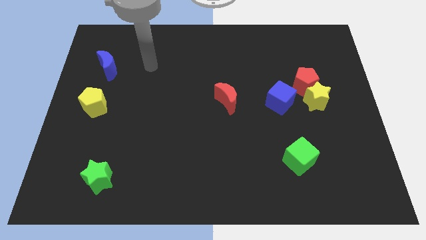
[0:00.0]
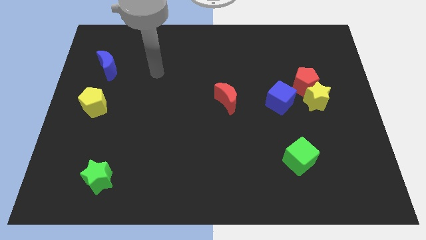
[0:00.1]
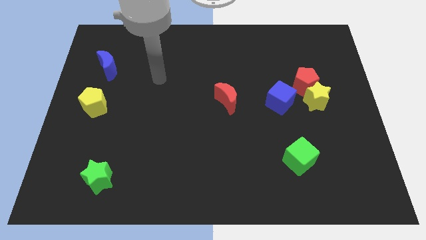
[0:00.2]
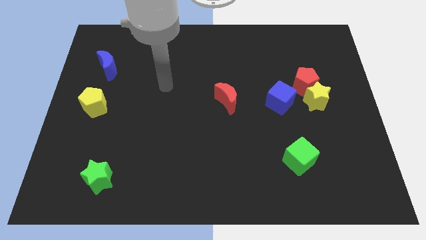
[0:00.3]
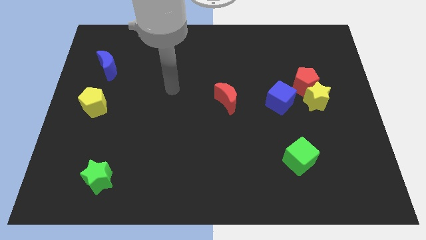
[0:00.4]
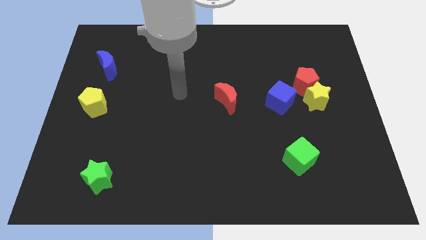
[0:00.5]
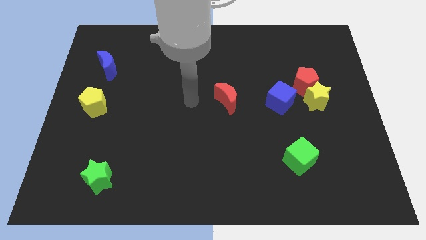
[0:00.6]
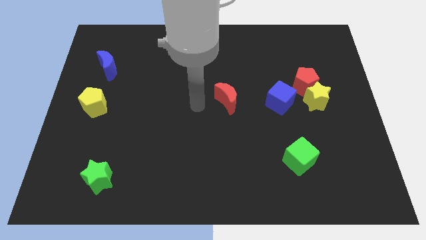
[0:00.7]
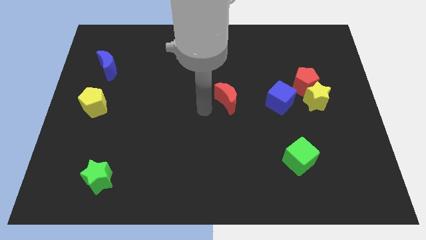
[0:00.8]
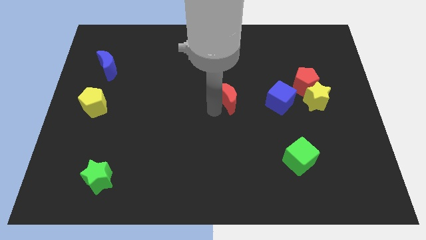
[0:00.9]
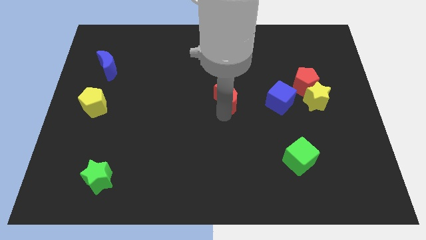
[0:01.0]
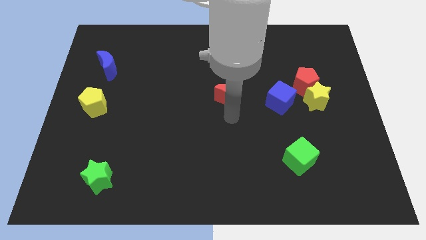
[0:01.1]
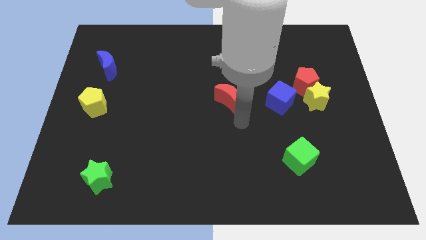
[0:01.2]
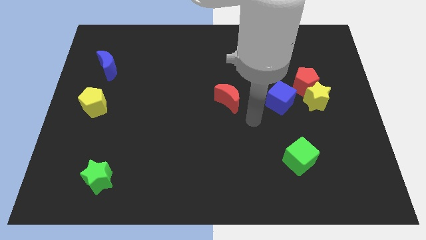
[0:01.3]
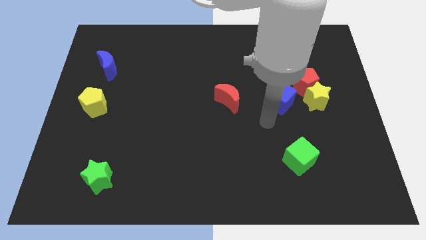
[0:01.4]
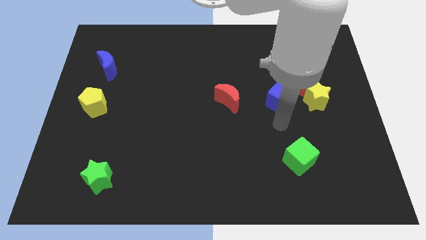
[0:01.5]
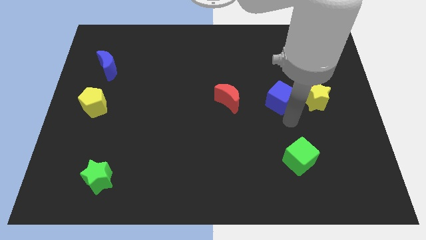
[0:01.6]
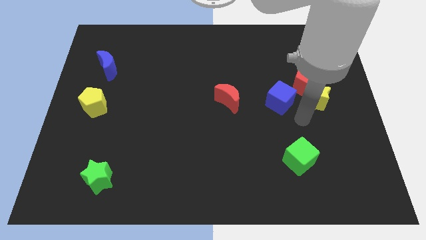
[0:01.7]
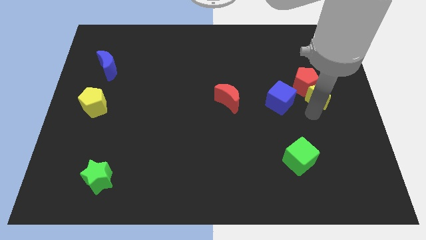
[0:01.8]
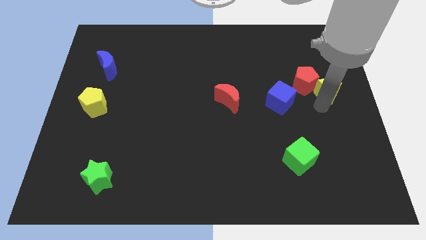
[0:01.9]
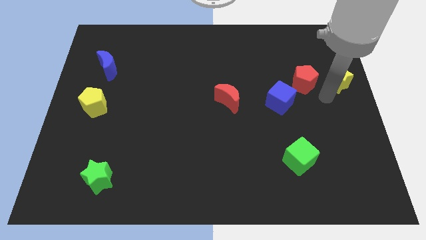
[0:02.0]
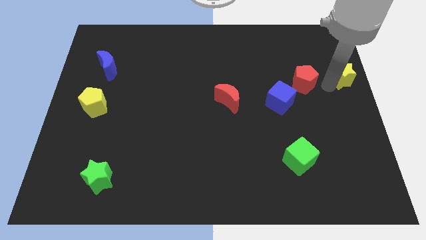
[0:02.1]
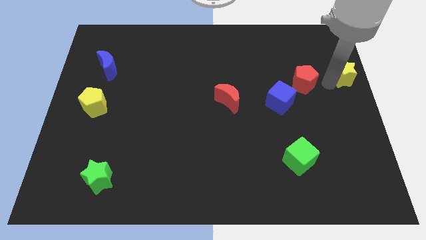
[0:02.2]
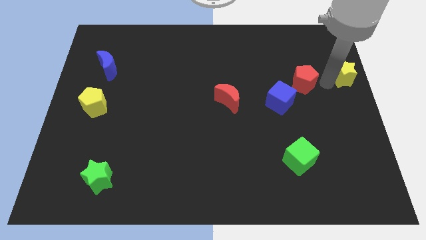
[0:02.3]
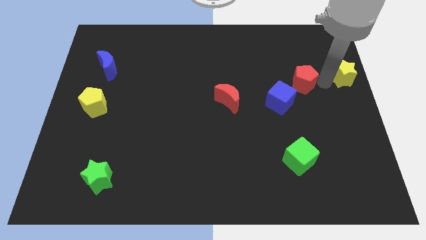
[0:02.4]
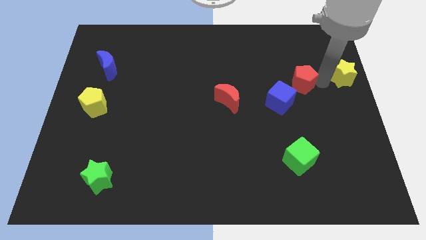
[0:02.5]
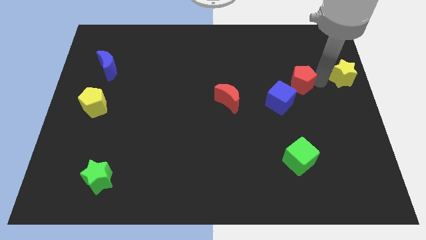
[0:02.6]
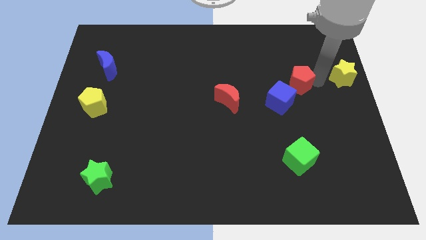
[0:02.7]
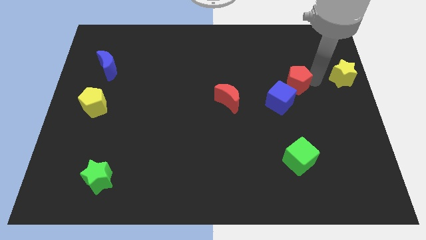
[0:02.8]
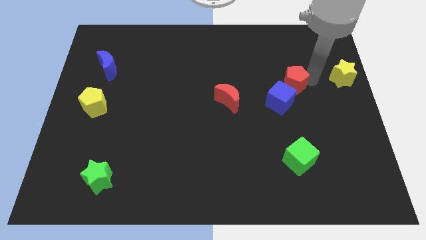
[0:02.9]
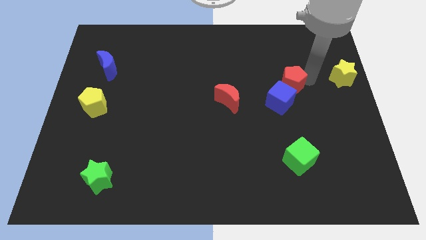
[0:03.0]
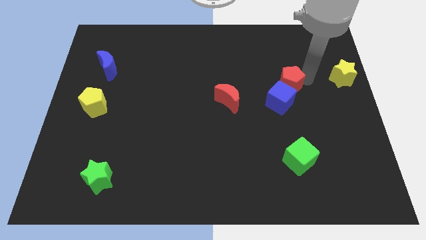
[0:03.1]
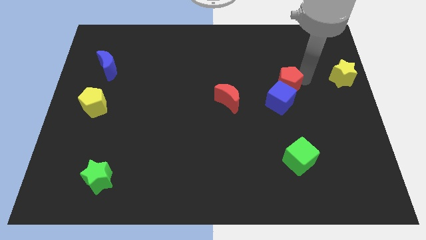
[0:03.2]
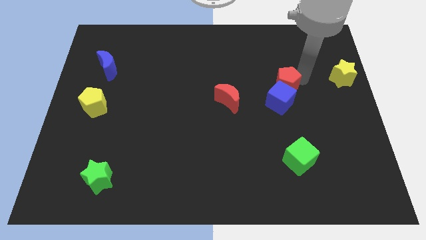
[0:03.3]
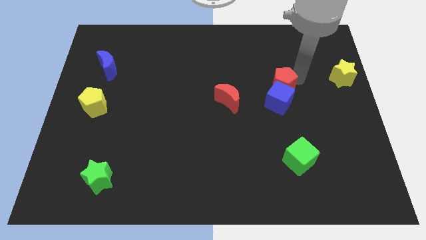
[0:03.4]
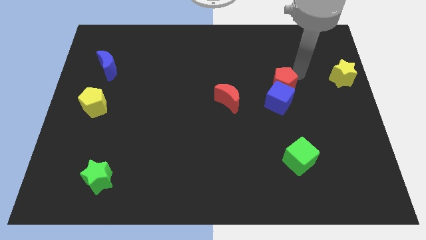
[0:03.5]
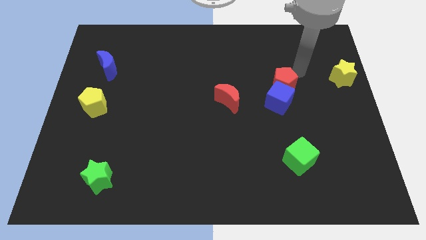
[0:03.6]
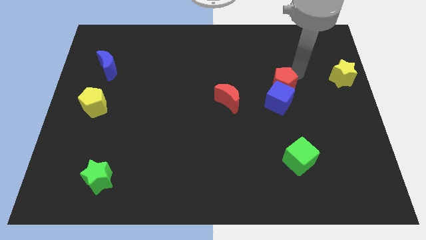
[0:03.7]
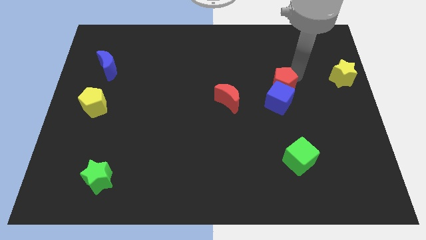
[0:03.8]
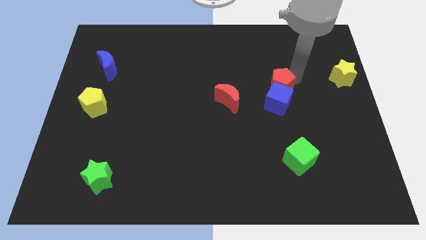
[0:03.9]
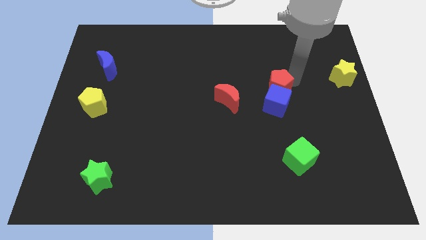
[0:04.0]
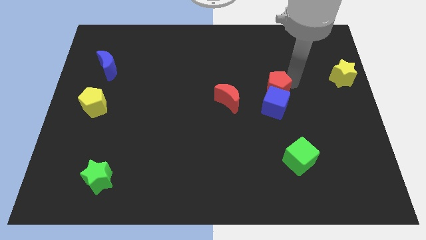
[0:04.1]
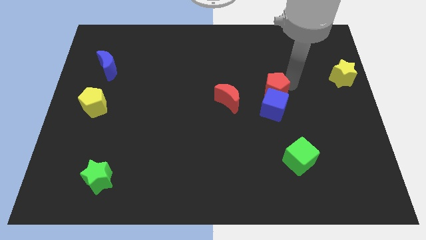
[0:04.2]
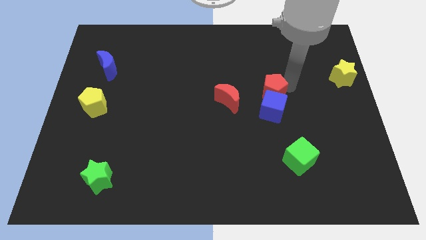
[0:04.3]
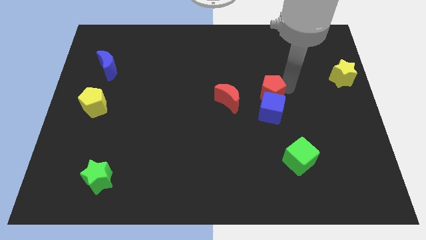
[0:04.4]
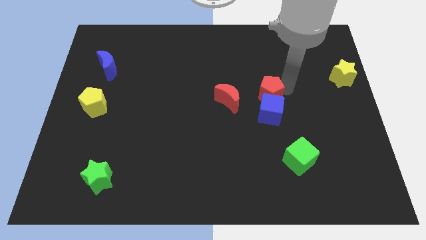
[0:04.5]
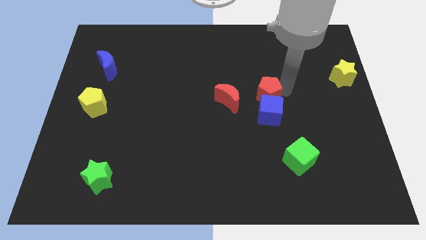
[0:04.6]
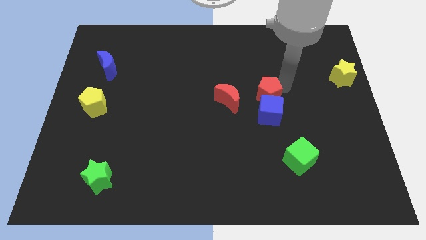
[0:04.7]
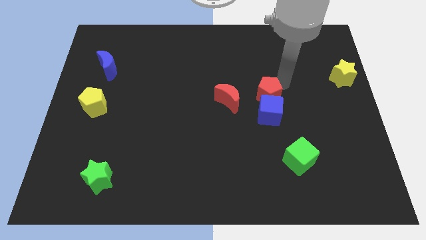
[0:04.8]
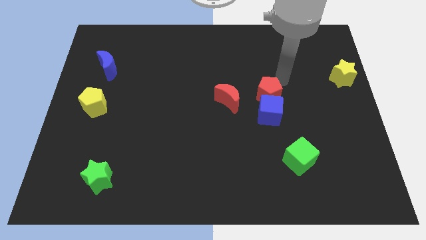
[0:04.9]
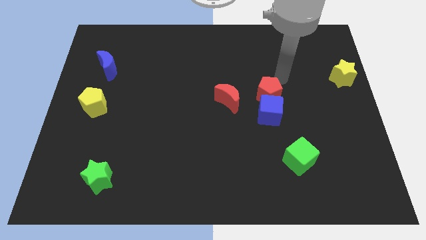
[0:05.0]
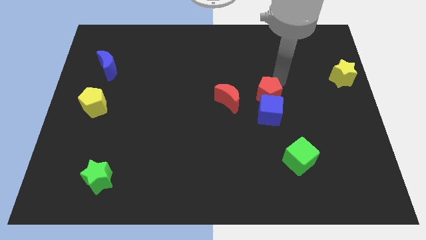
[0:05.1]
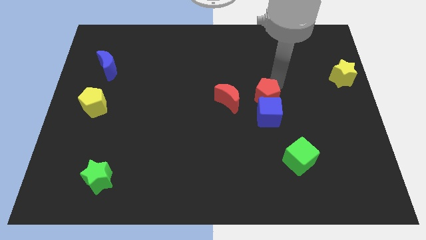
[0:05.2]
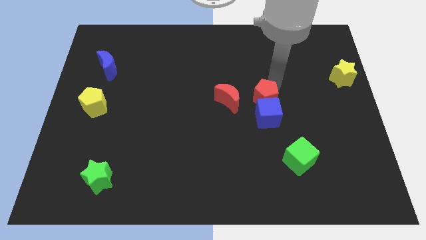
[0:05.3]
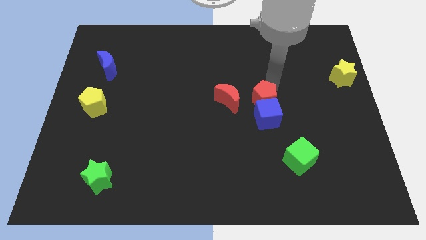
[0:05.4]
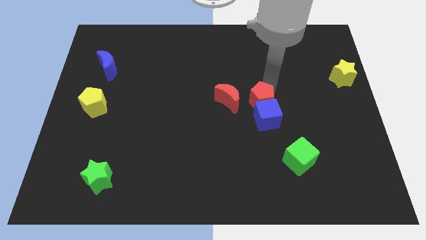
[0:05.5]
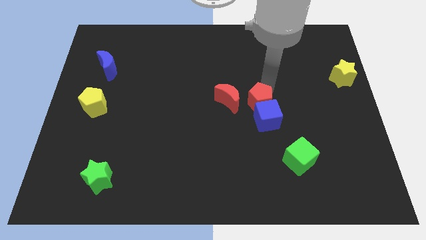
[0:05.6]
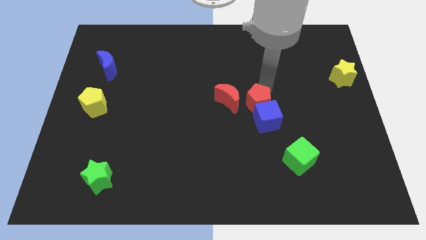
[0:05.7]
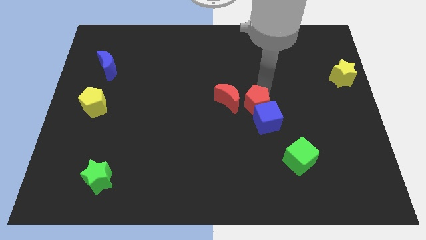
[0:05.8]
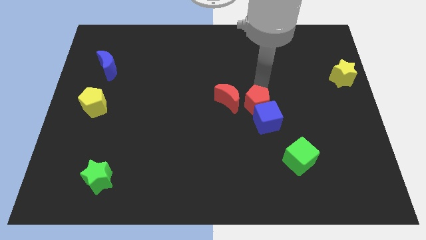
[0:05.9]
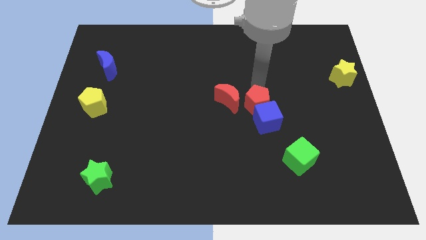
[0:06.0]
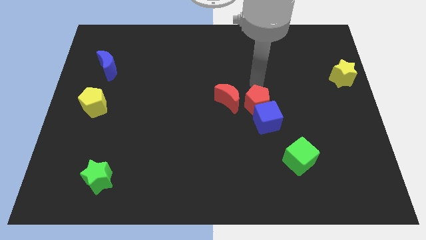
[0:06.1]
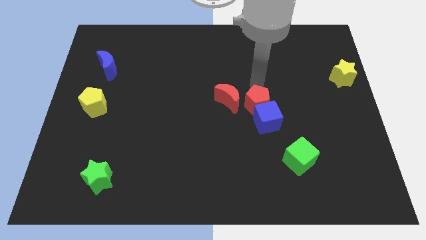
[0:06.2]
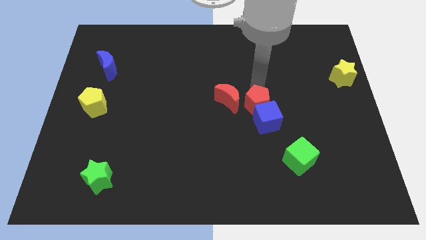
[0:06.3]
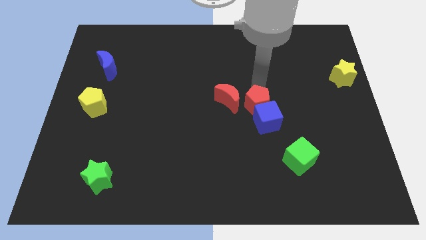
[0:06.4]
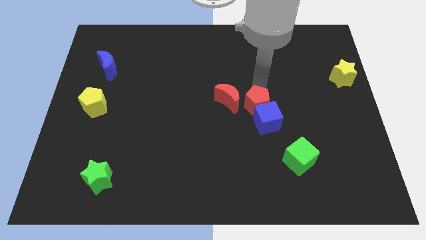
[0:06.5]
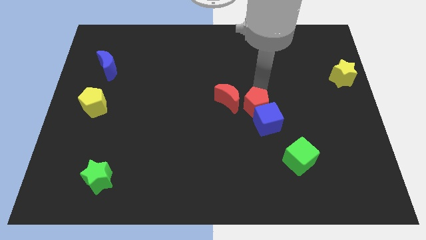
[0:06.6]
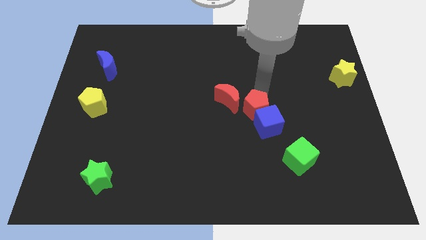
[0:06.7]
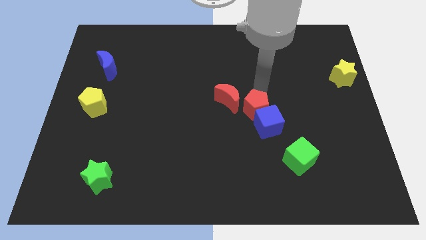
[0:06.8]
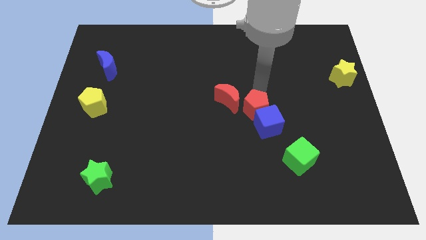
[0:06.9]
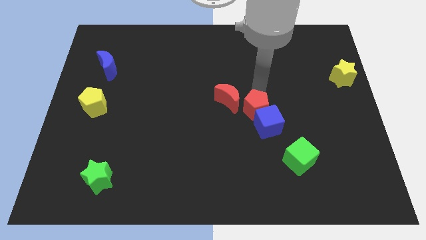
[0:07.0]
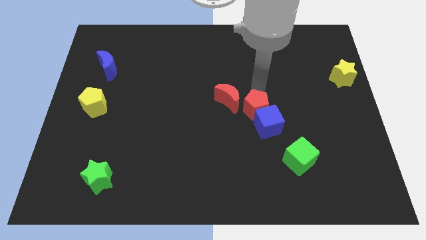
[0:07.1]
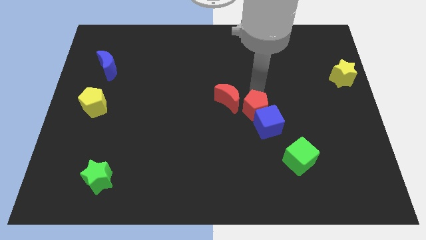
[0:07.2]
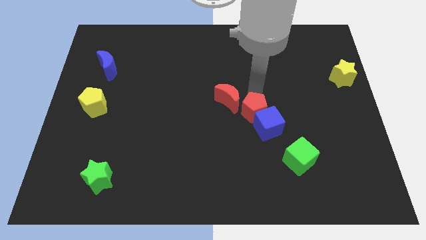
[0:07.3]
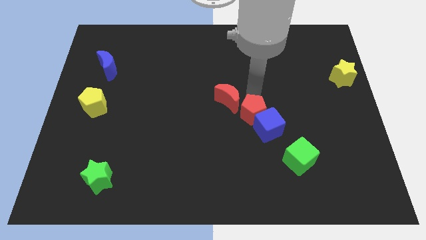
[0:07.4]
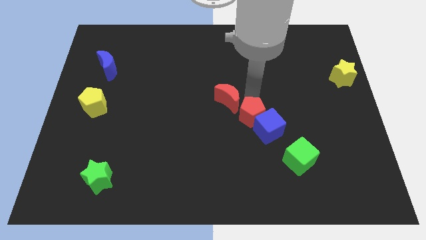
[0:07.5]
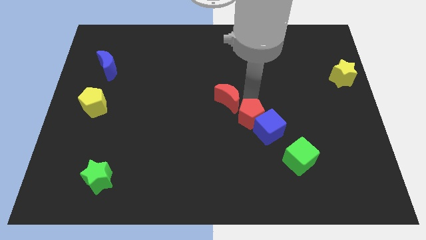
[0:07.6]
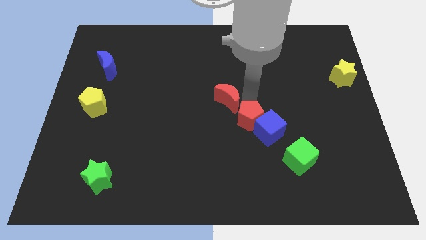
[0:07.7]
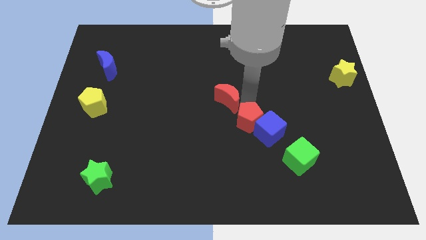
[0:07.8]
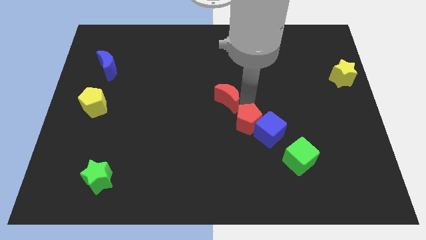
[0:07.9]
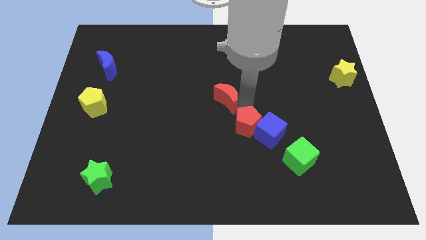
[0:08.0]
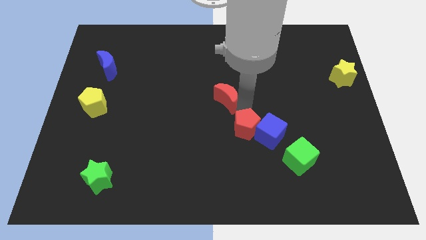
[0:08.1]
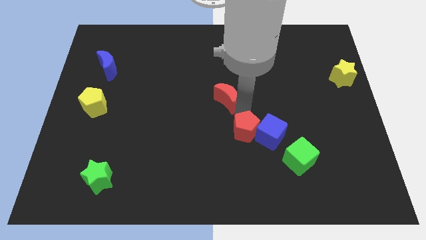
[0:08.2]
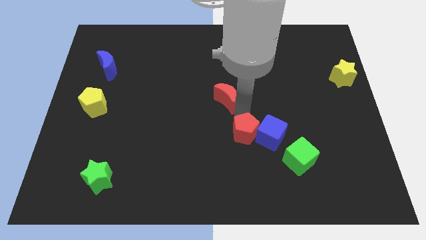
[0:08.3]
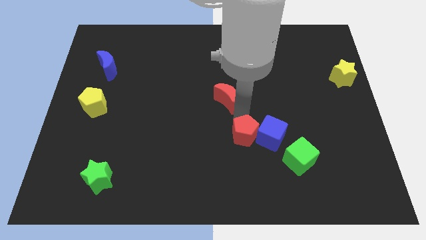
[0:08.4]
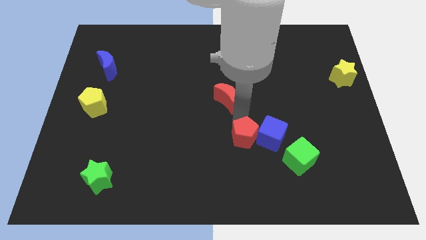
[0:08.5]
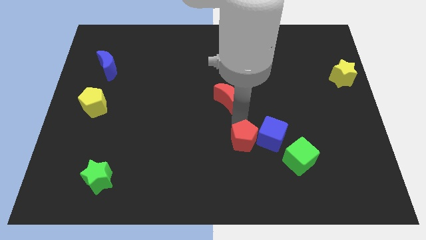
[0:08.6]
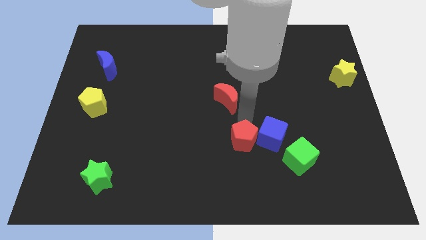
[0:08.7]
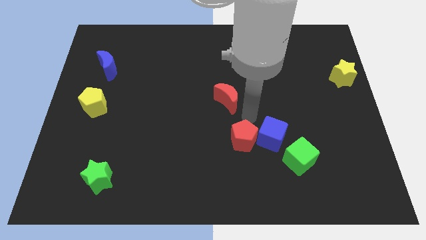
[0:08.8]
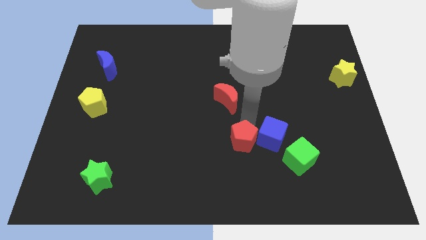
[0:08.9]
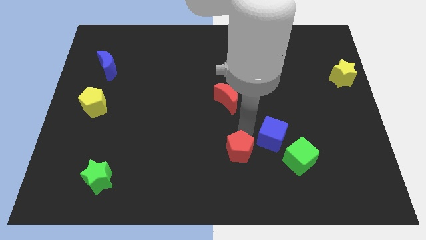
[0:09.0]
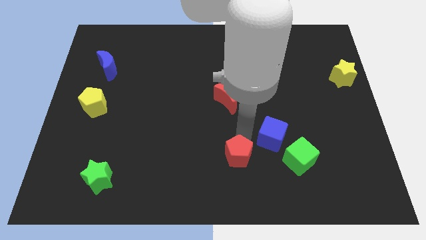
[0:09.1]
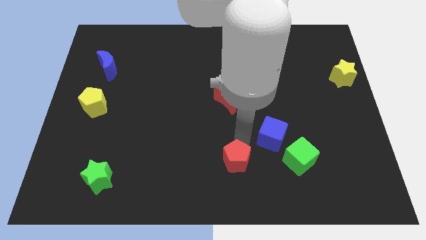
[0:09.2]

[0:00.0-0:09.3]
move the red pentagon to the bottom
